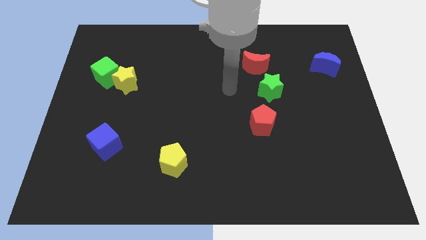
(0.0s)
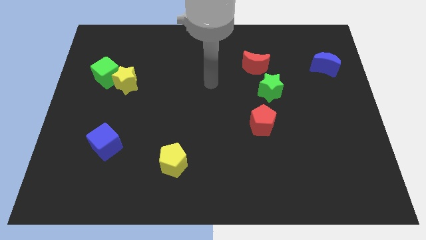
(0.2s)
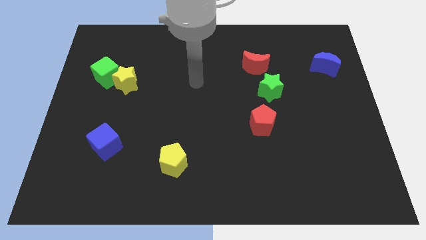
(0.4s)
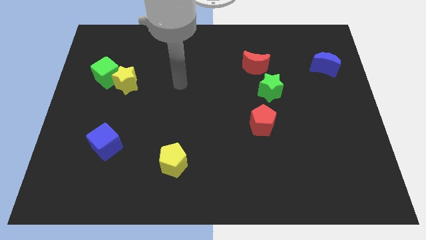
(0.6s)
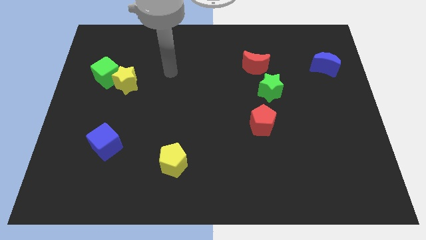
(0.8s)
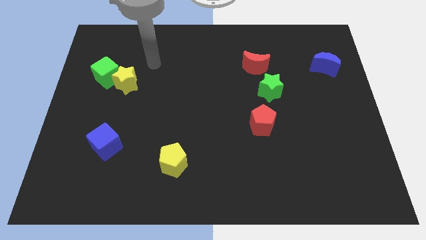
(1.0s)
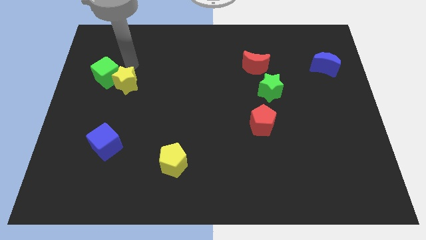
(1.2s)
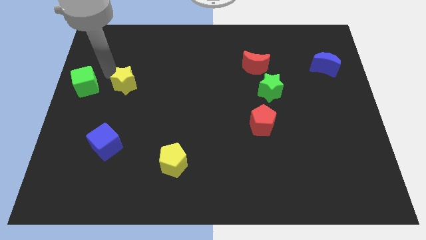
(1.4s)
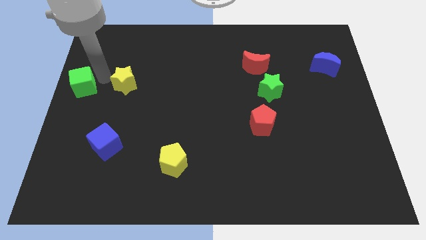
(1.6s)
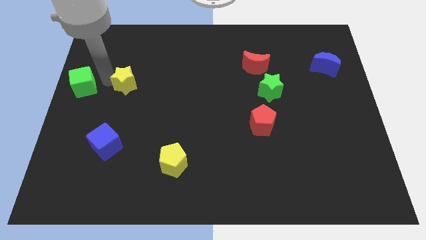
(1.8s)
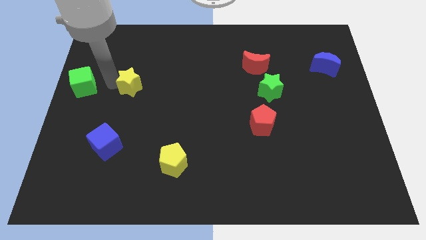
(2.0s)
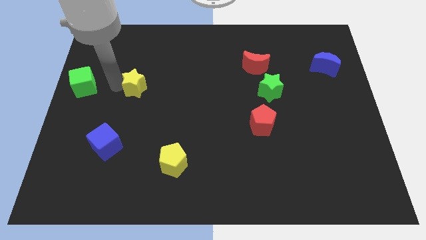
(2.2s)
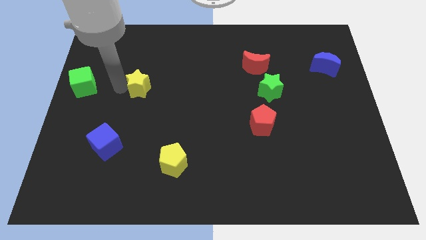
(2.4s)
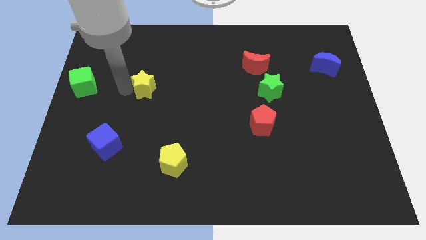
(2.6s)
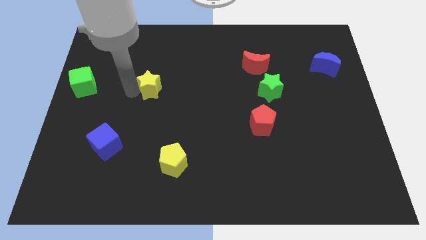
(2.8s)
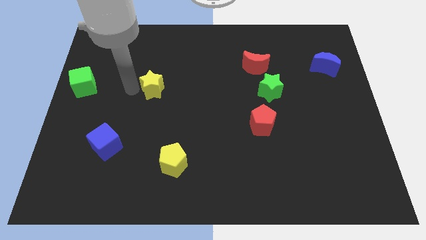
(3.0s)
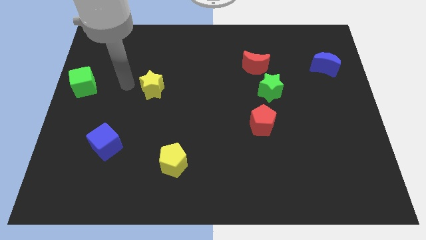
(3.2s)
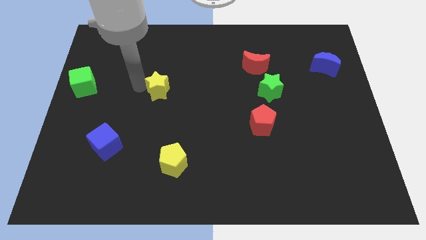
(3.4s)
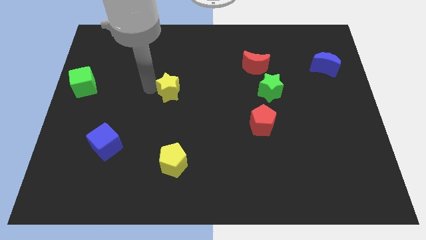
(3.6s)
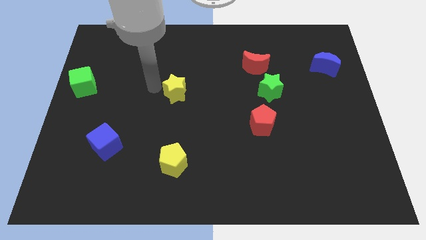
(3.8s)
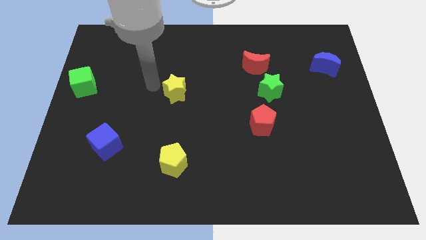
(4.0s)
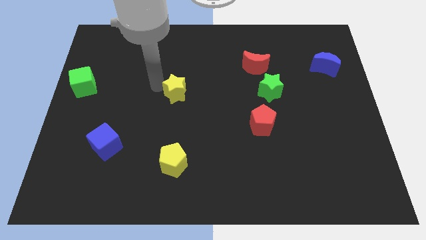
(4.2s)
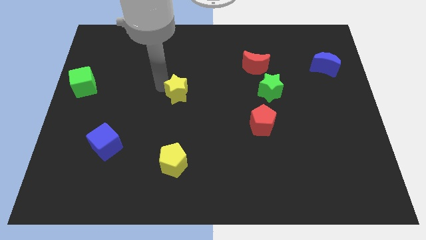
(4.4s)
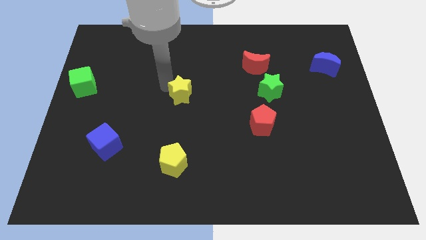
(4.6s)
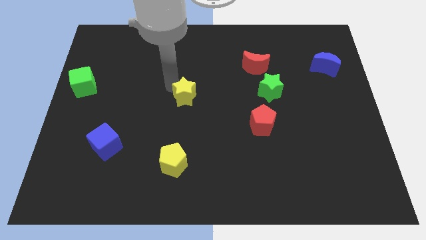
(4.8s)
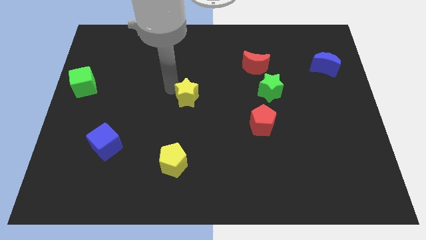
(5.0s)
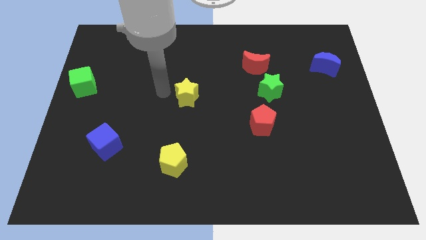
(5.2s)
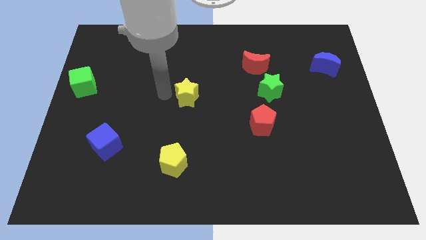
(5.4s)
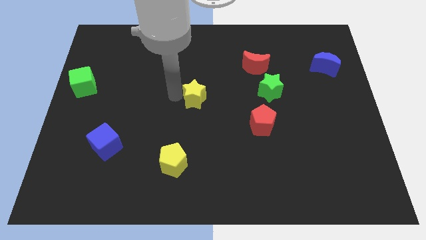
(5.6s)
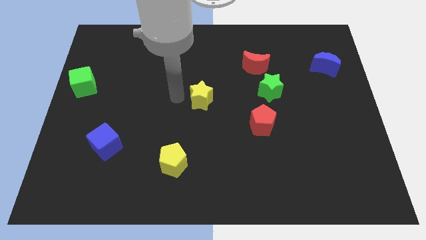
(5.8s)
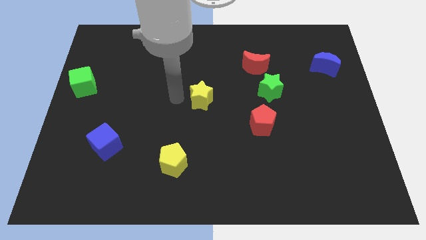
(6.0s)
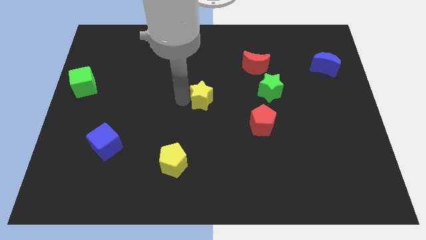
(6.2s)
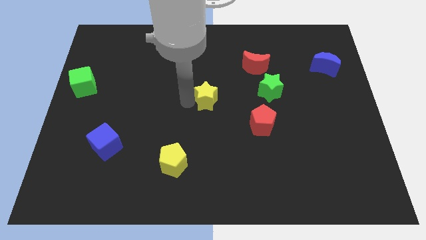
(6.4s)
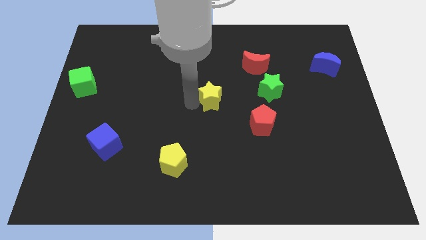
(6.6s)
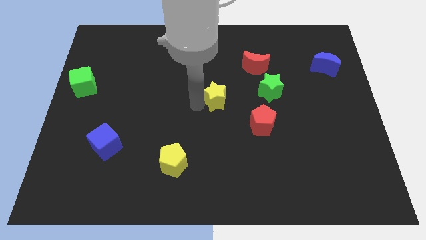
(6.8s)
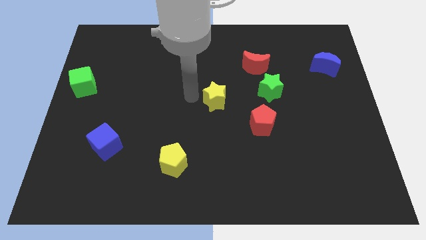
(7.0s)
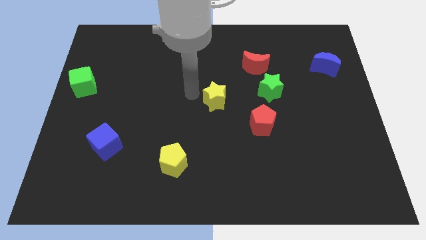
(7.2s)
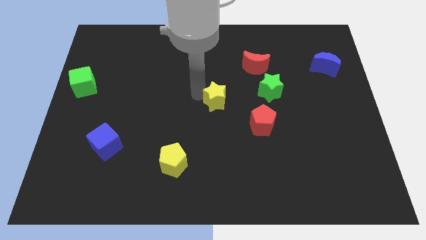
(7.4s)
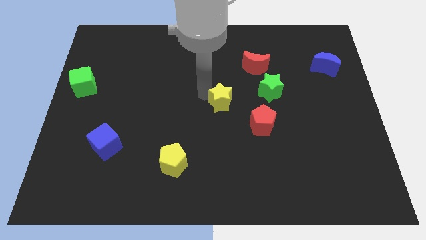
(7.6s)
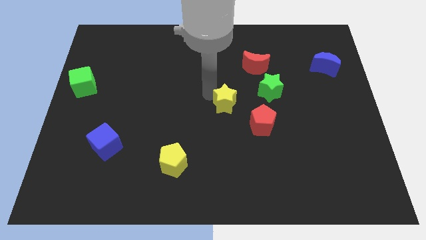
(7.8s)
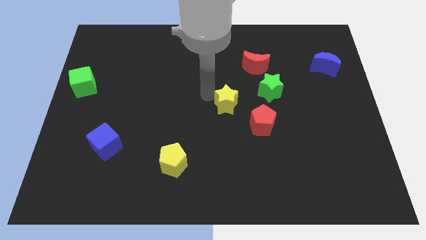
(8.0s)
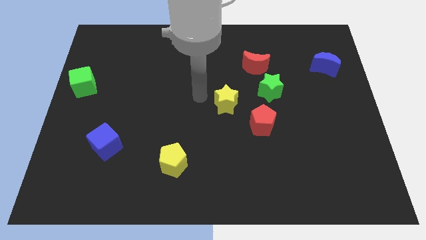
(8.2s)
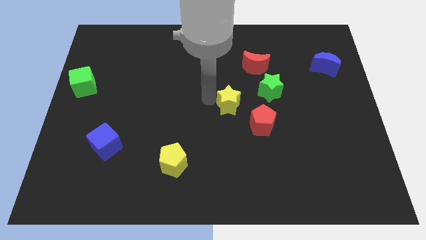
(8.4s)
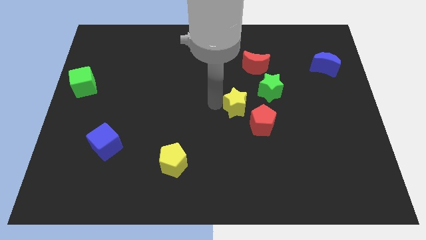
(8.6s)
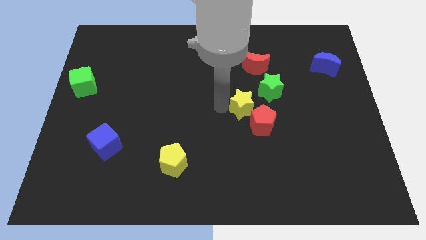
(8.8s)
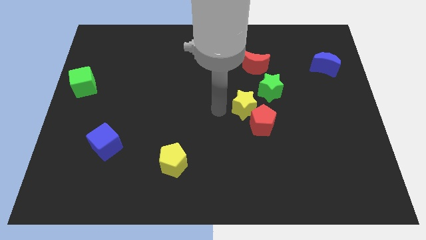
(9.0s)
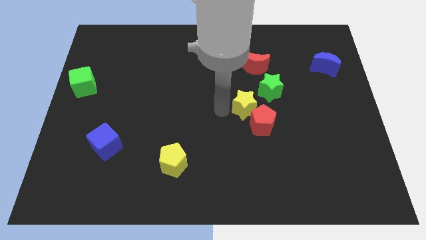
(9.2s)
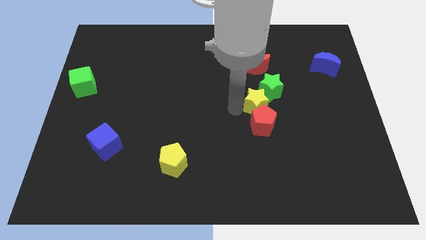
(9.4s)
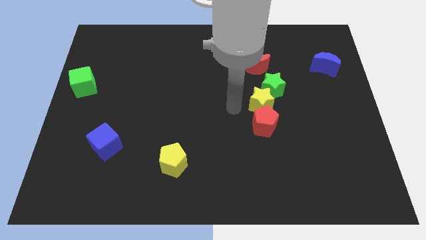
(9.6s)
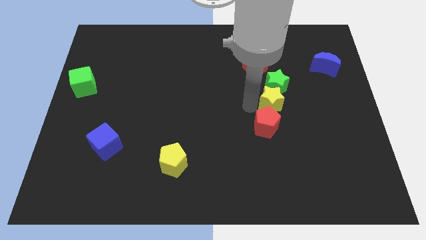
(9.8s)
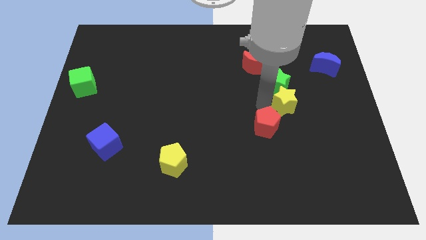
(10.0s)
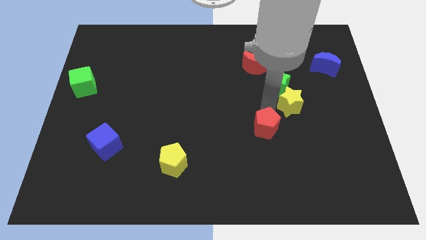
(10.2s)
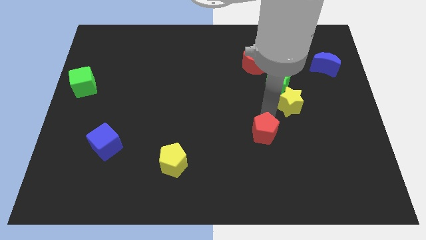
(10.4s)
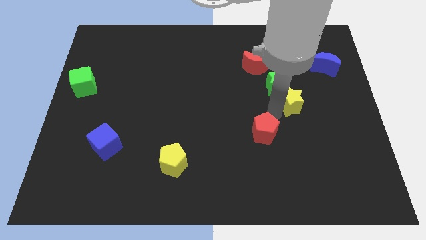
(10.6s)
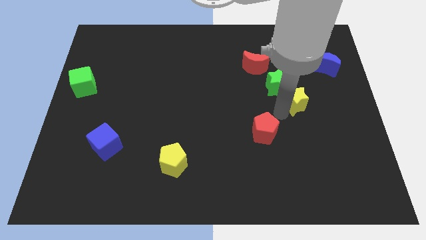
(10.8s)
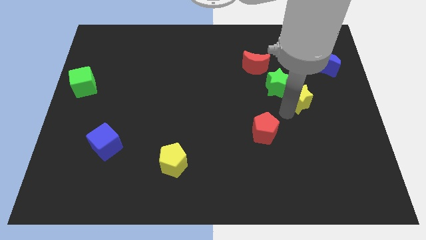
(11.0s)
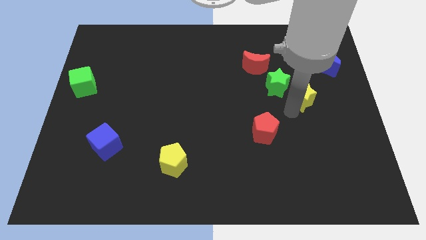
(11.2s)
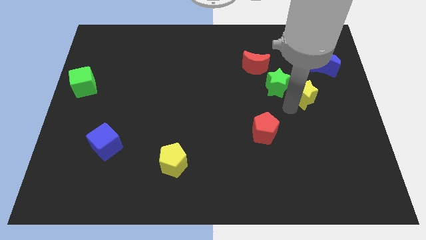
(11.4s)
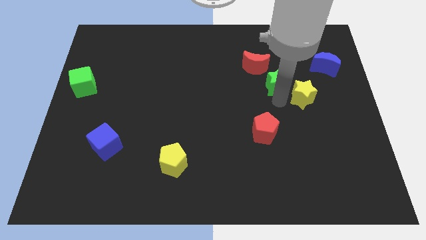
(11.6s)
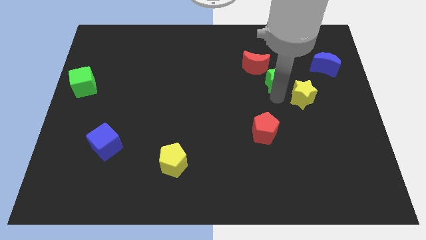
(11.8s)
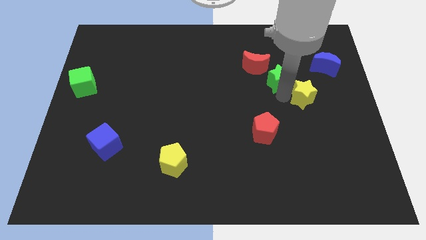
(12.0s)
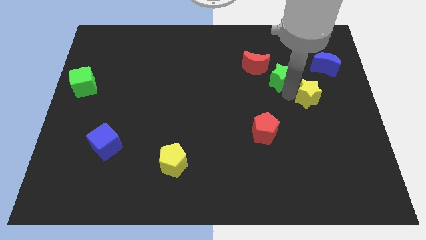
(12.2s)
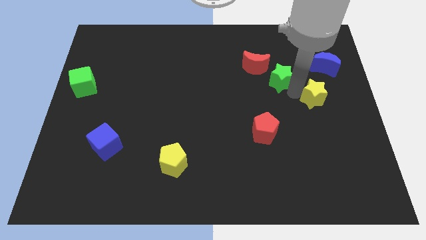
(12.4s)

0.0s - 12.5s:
push the yellow star to the bottom of the blue moon

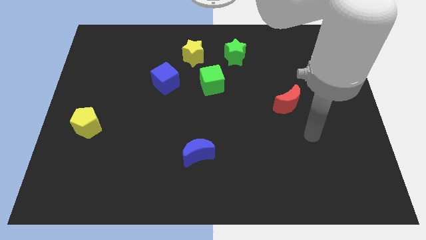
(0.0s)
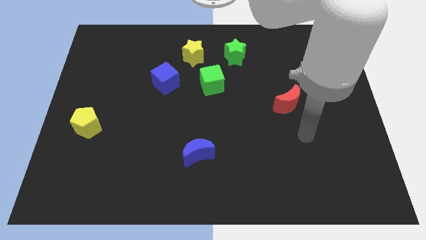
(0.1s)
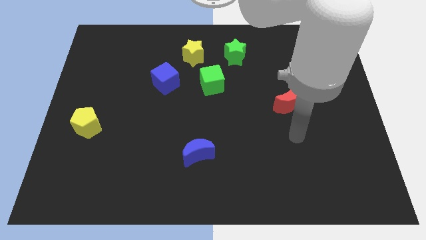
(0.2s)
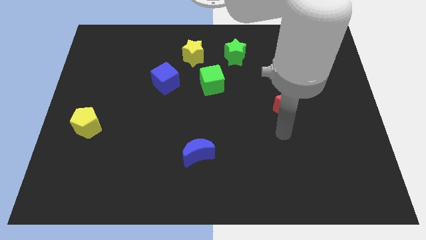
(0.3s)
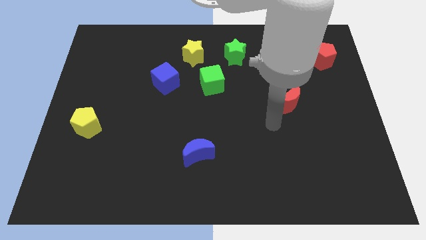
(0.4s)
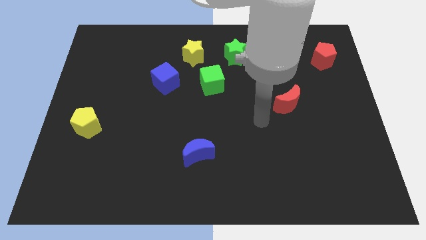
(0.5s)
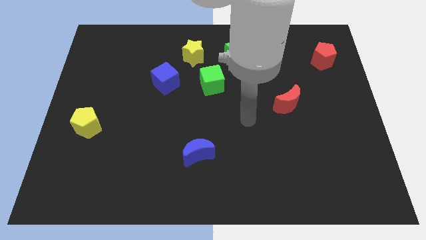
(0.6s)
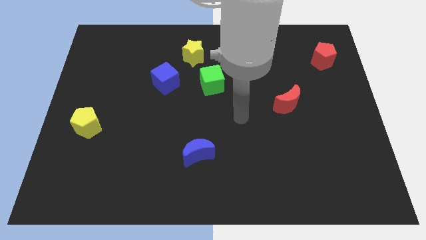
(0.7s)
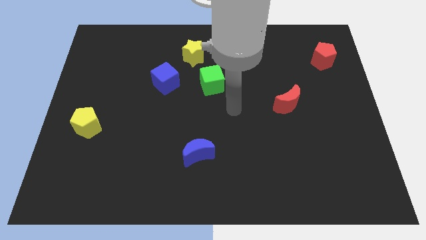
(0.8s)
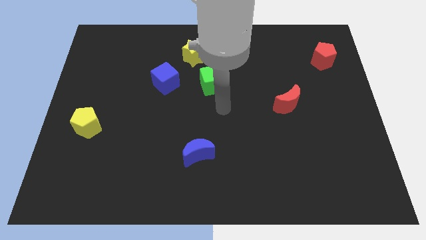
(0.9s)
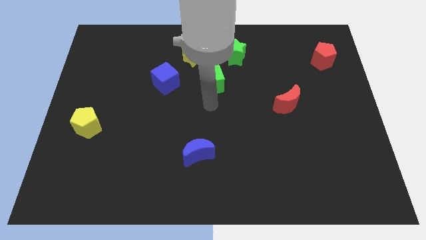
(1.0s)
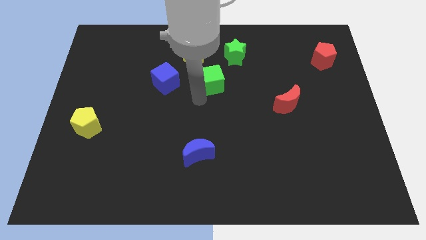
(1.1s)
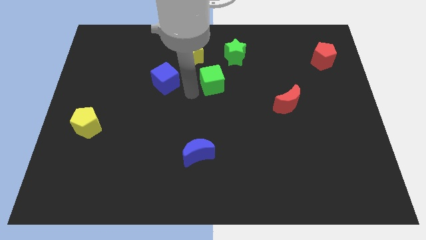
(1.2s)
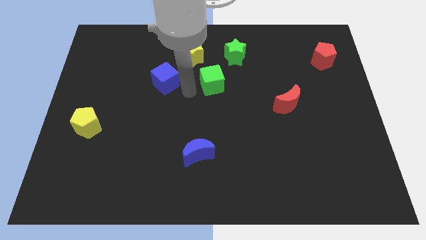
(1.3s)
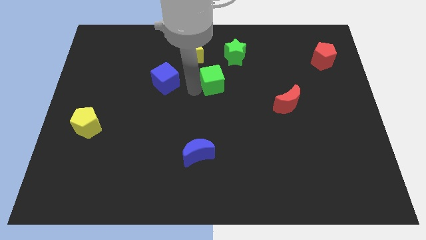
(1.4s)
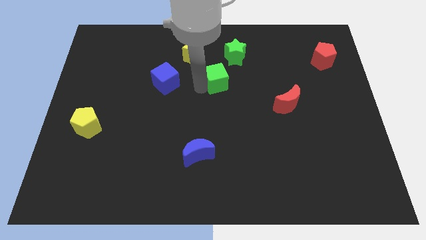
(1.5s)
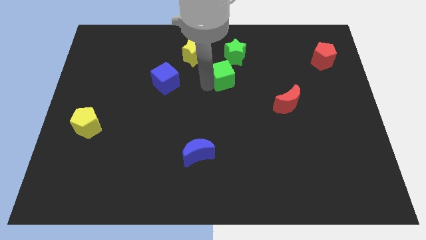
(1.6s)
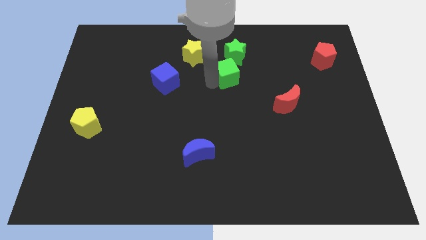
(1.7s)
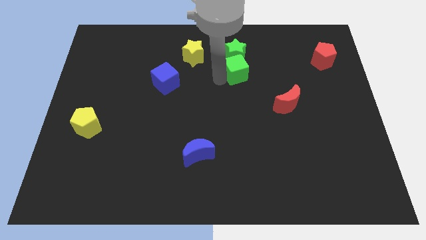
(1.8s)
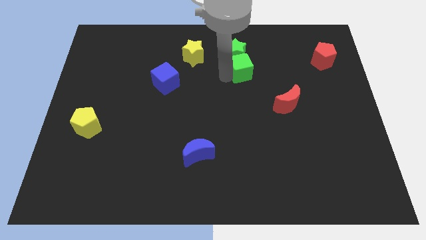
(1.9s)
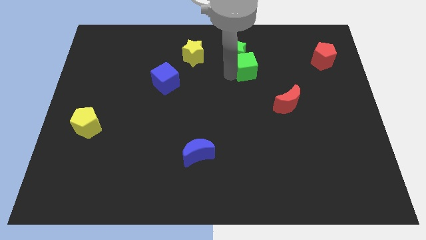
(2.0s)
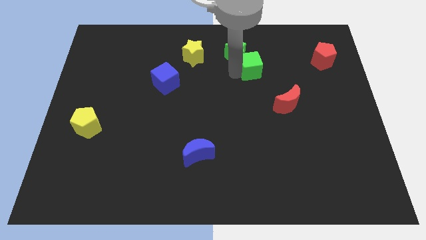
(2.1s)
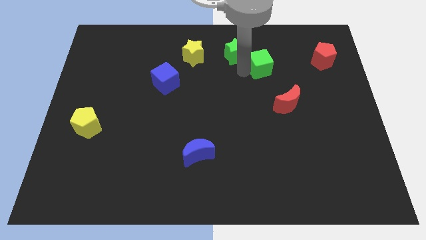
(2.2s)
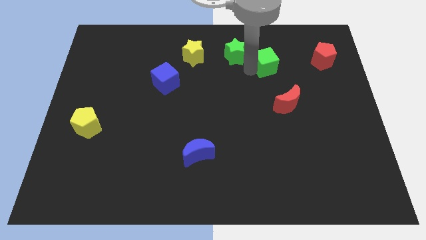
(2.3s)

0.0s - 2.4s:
move the green cube to the left of the red pentagon
